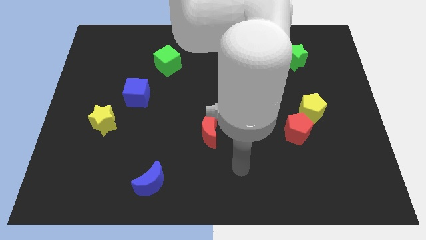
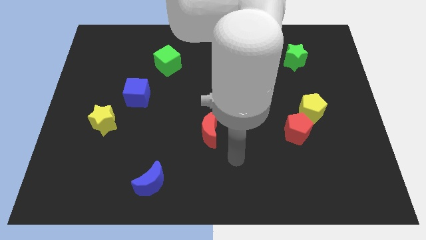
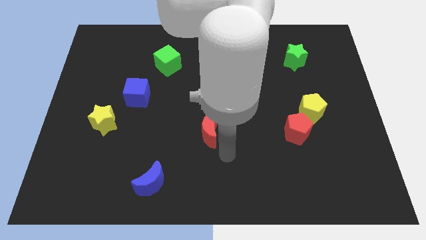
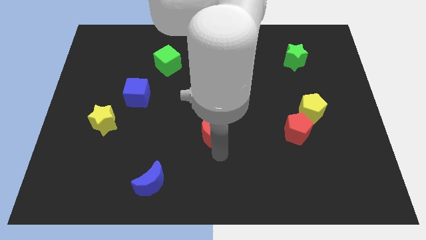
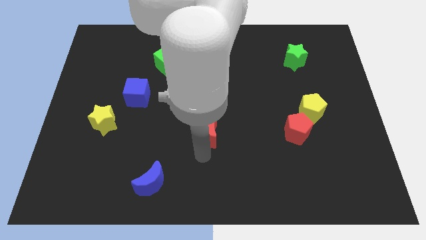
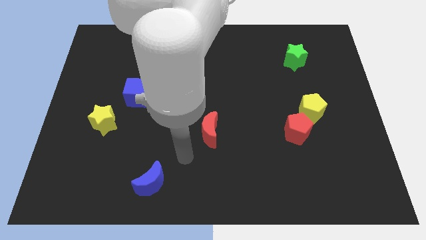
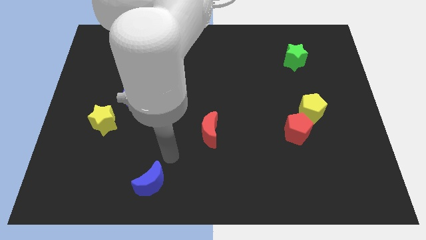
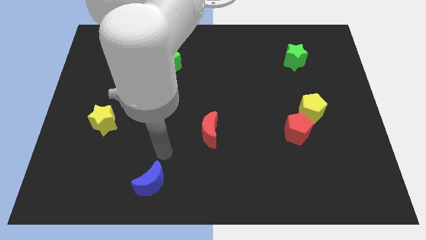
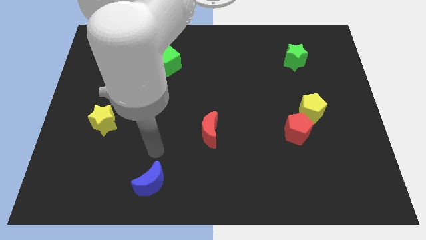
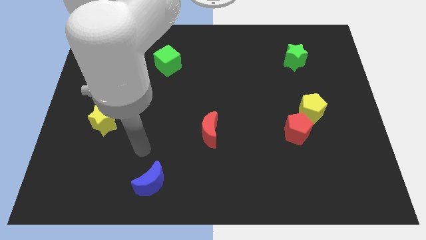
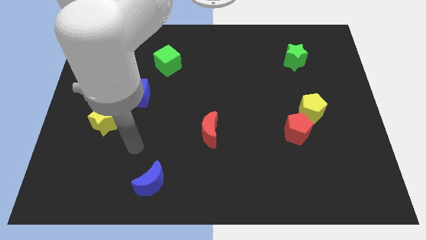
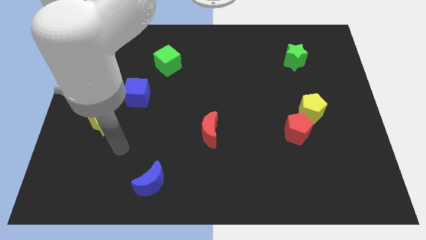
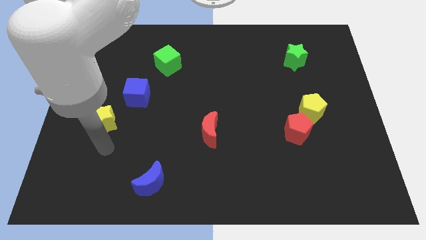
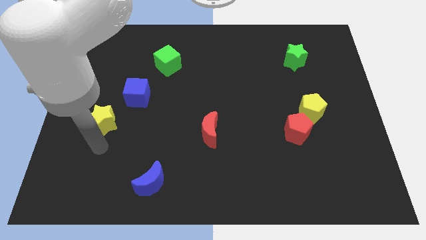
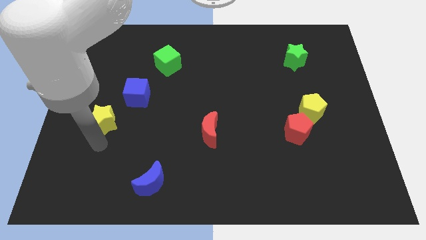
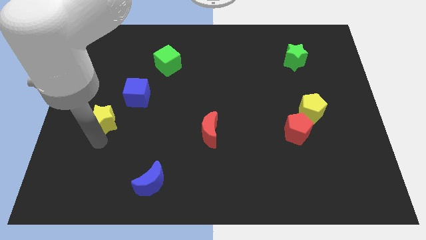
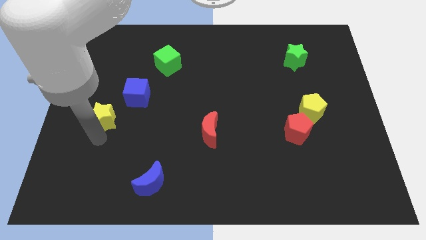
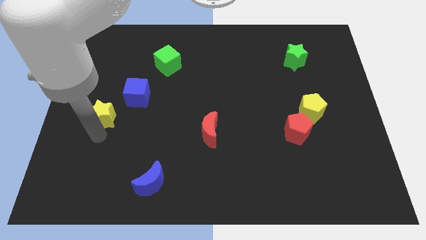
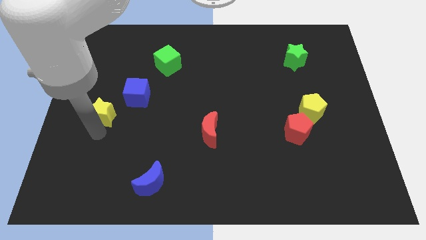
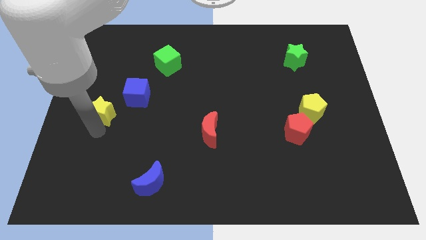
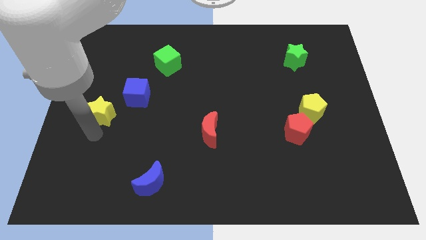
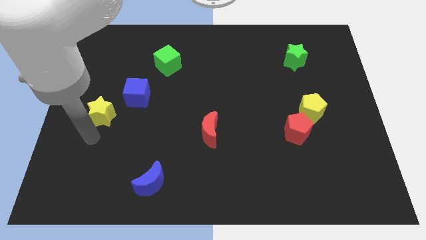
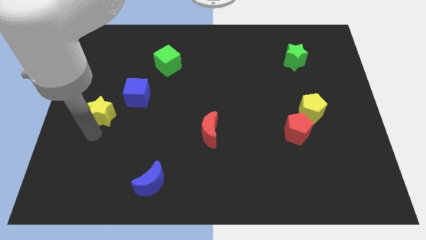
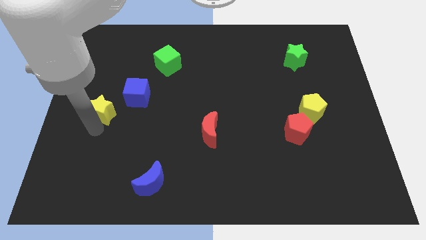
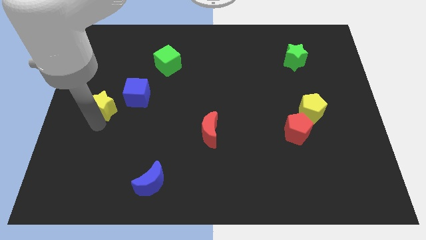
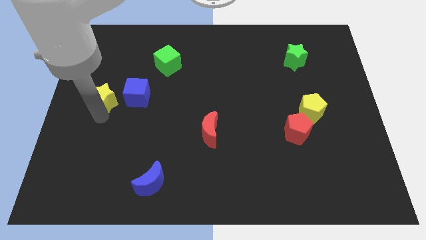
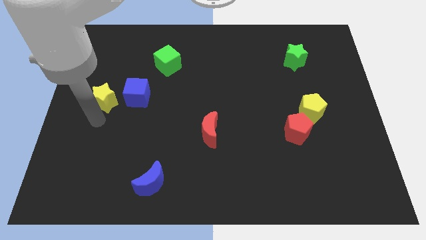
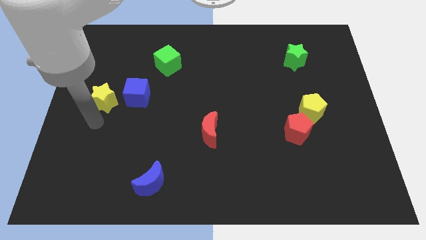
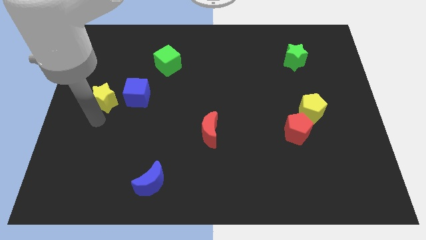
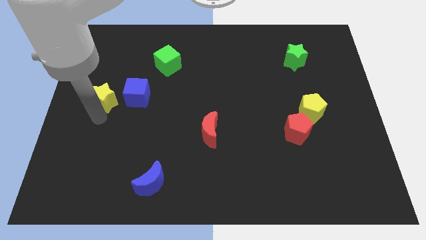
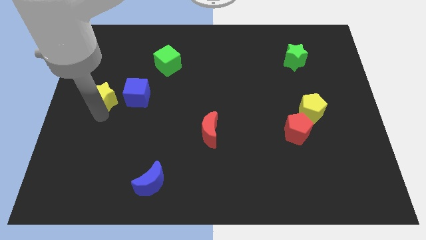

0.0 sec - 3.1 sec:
slightly push the yellow star up

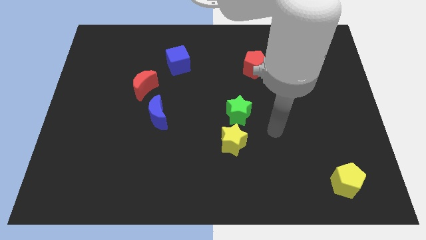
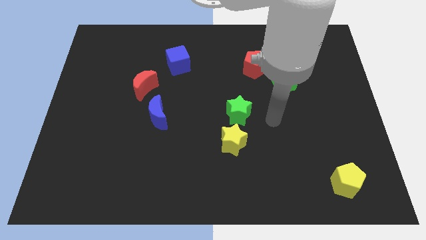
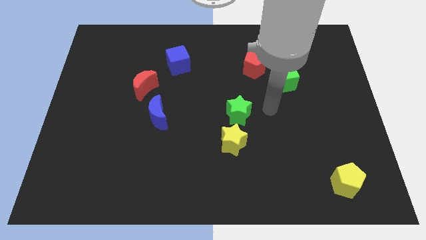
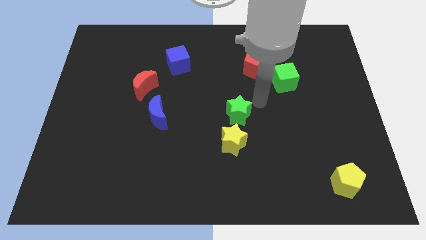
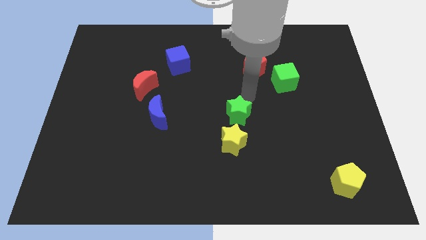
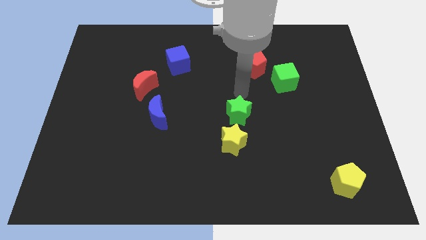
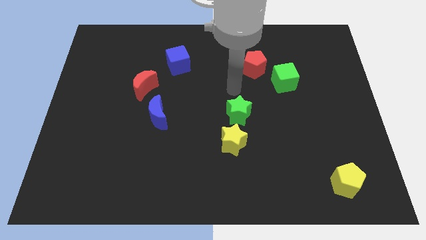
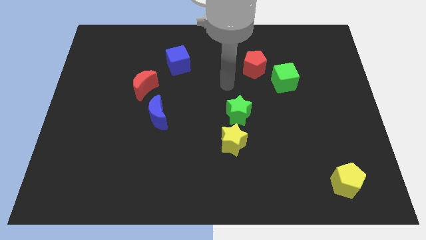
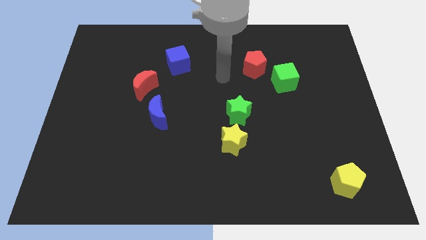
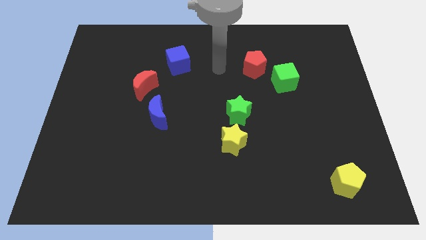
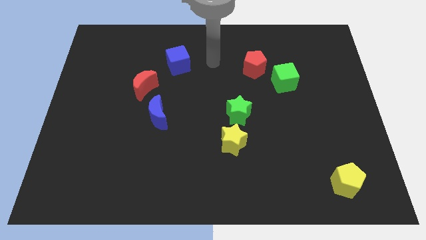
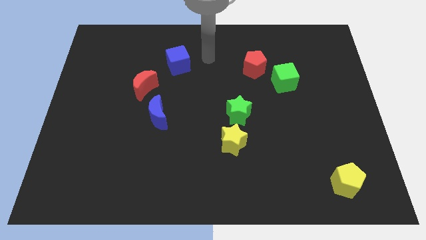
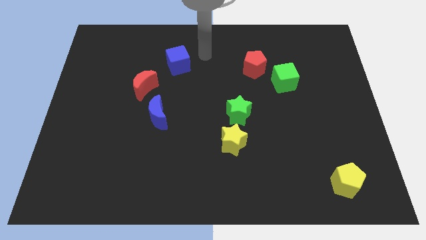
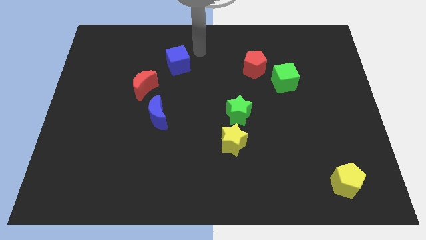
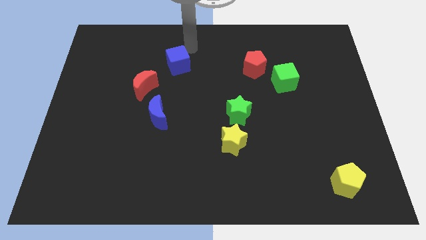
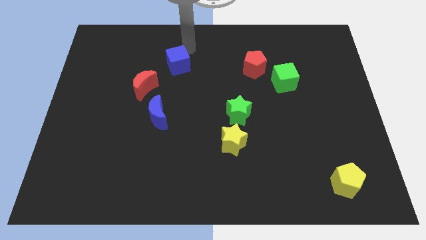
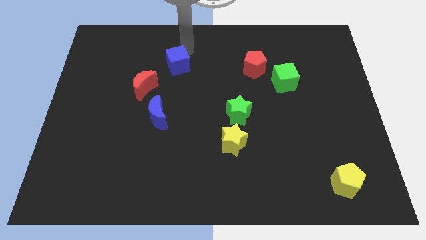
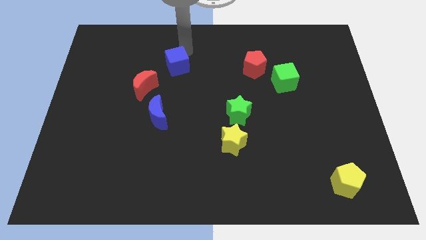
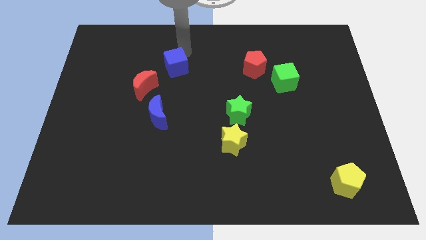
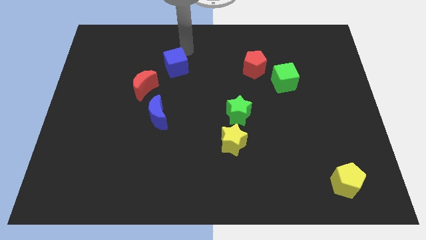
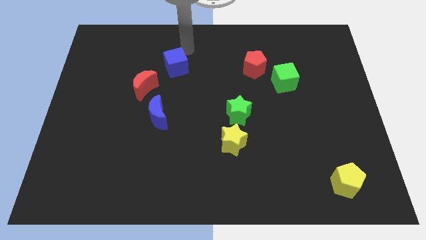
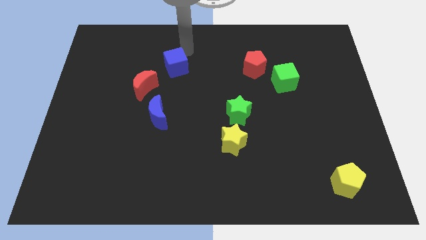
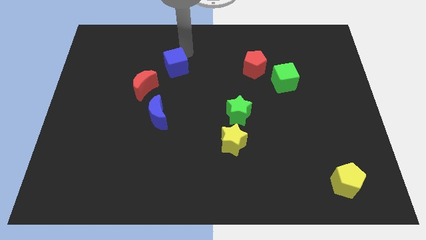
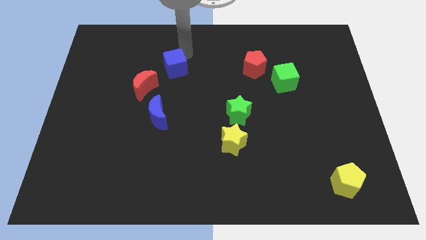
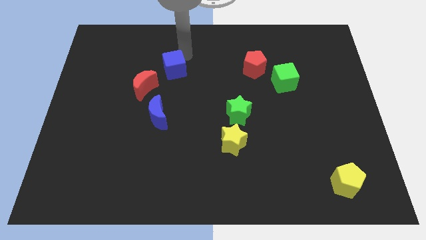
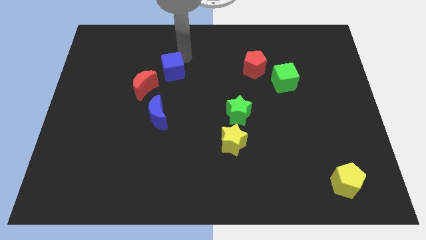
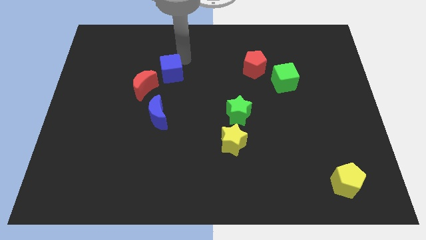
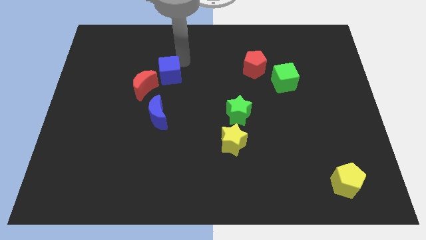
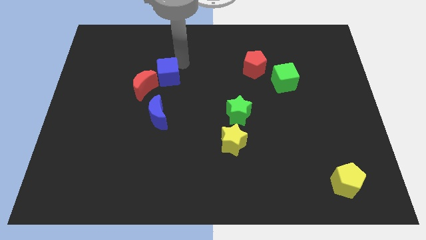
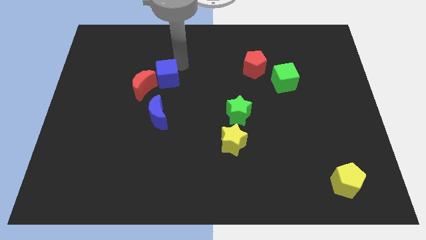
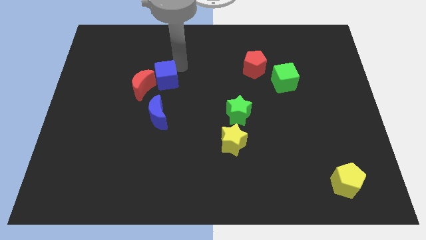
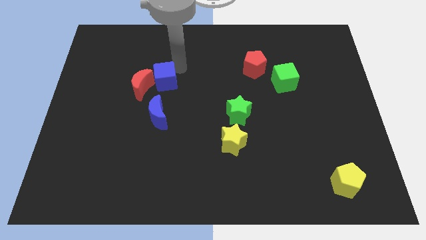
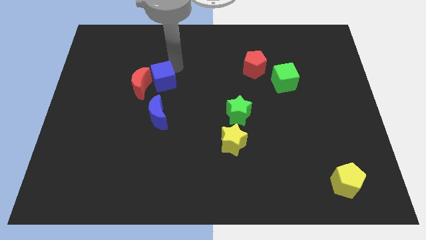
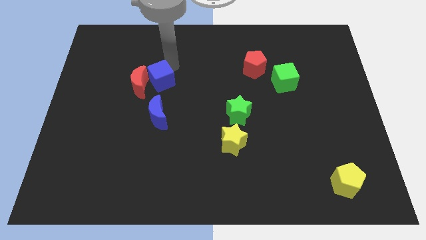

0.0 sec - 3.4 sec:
push the blue cube a bit downwards and left

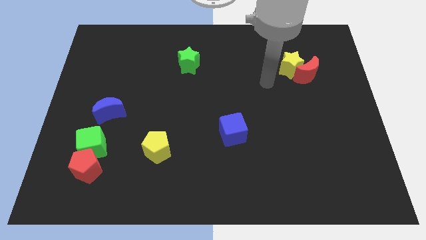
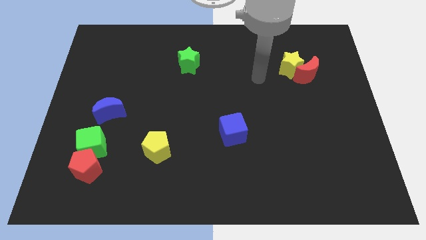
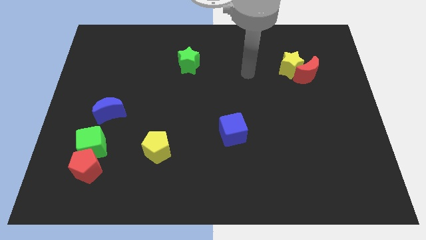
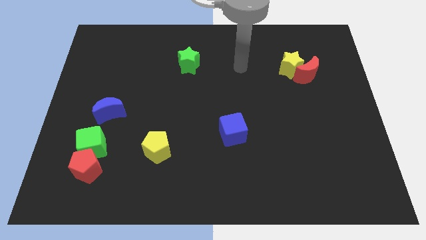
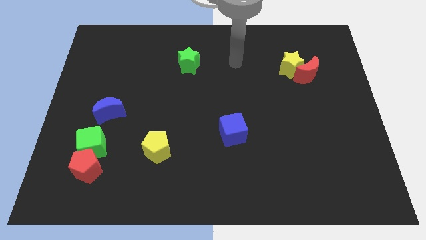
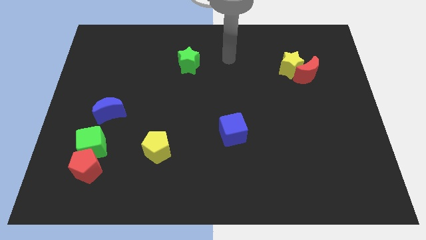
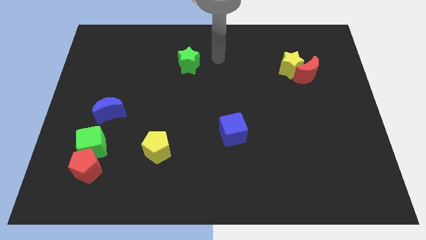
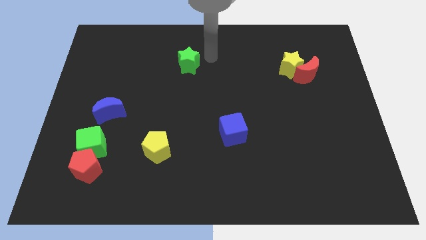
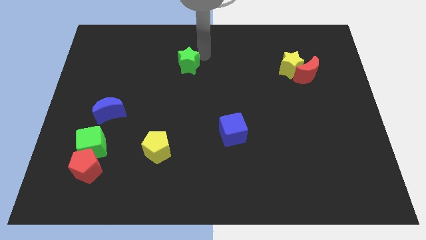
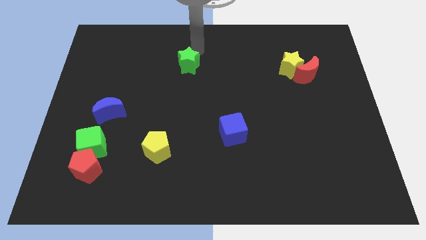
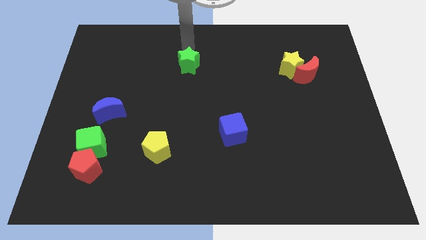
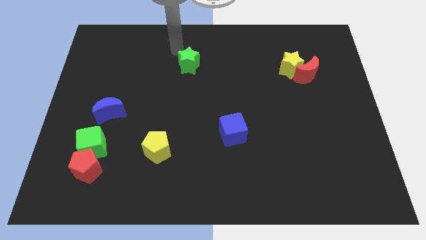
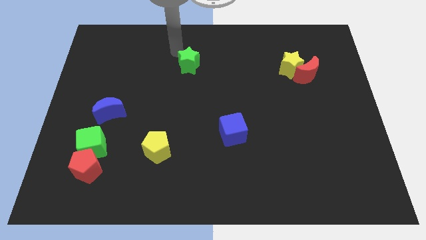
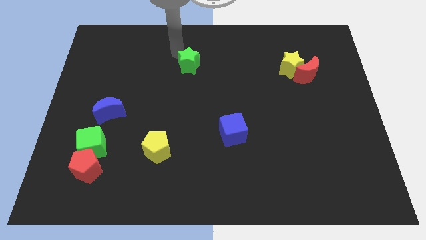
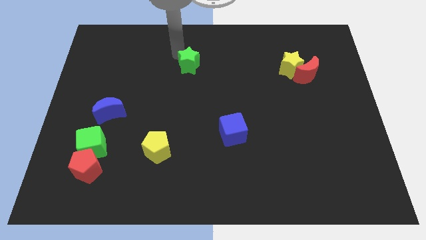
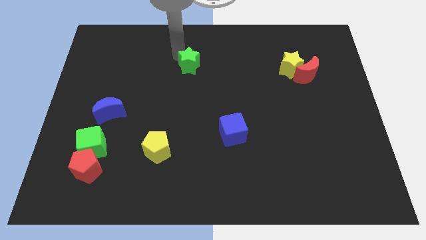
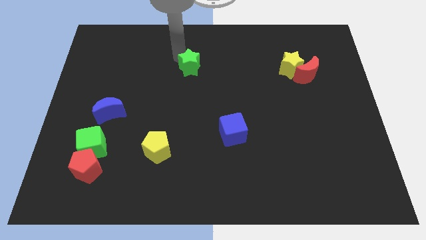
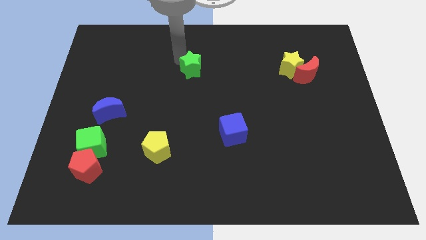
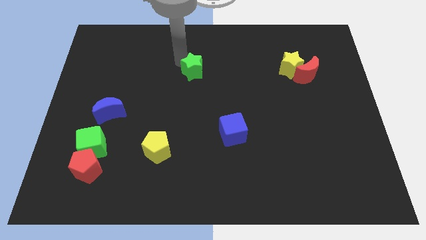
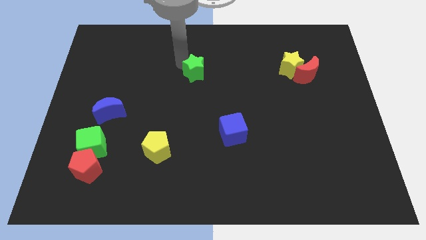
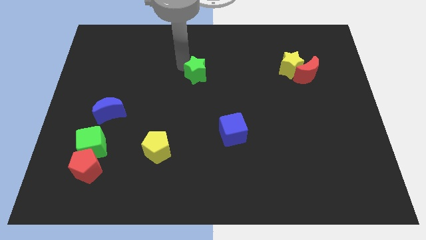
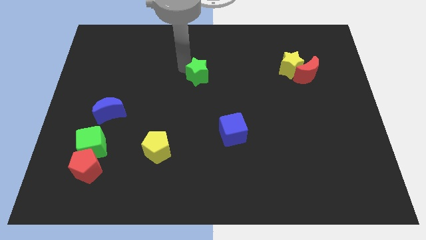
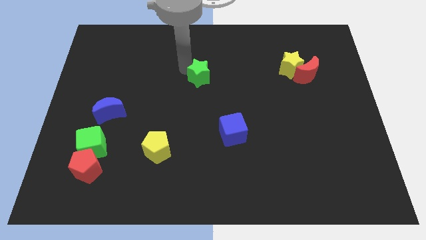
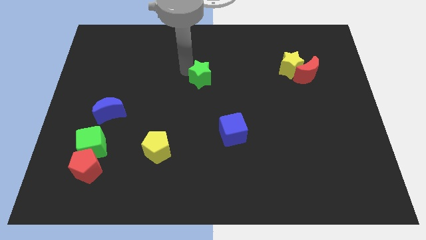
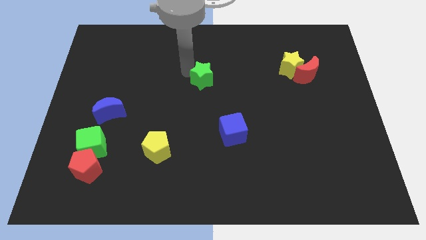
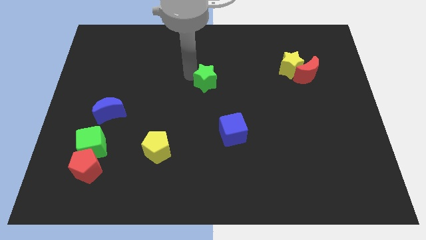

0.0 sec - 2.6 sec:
slide the green star down and to the right a bit
